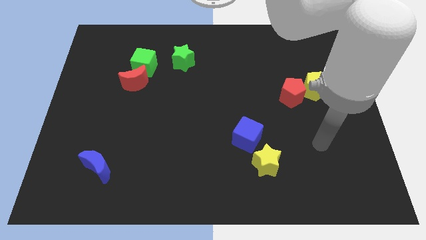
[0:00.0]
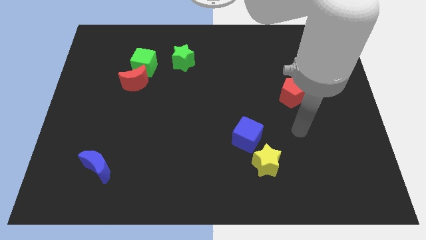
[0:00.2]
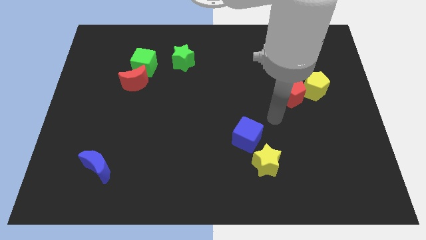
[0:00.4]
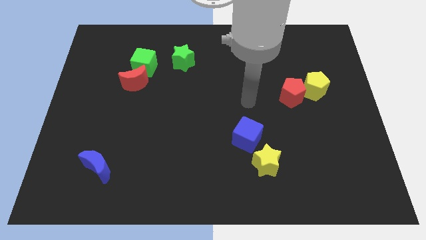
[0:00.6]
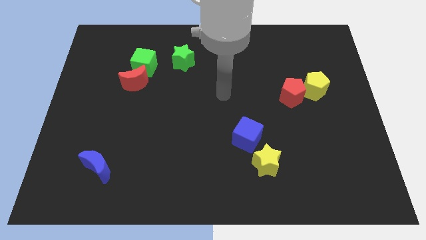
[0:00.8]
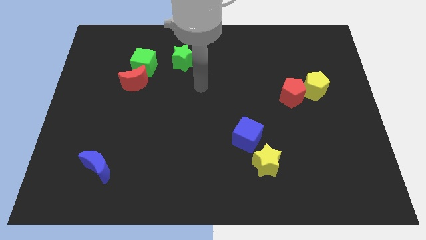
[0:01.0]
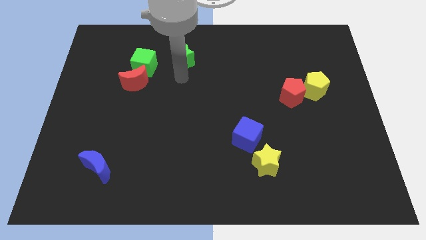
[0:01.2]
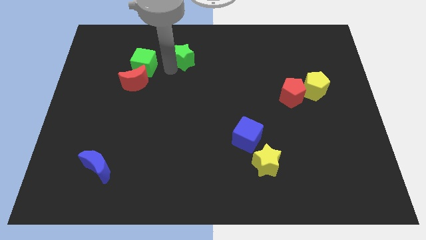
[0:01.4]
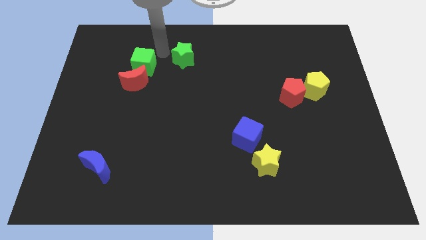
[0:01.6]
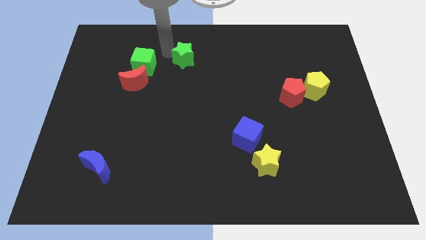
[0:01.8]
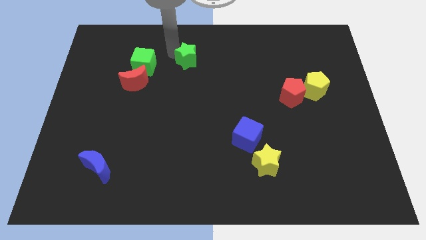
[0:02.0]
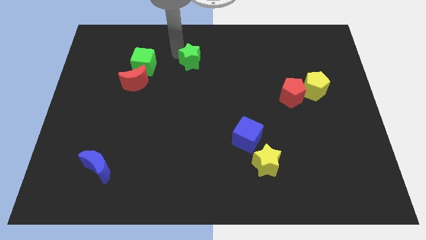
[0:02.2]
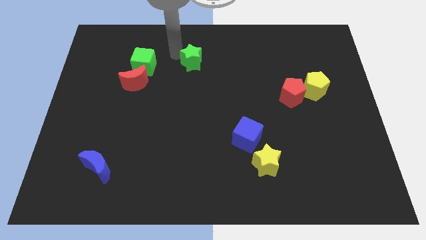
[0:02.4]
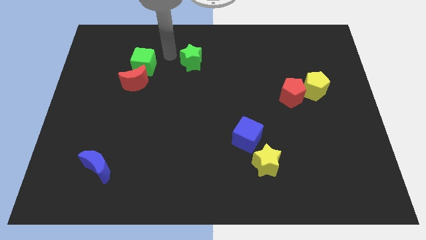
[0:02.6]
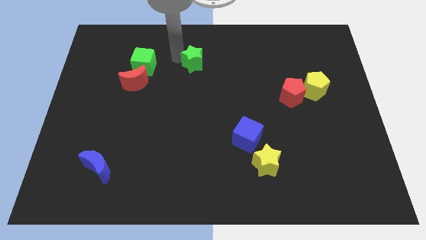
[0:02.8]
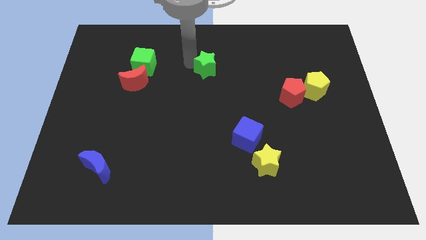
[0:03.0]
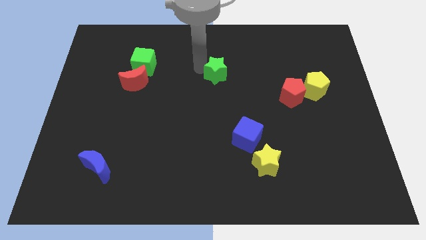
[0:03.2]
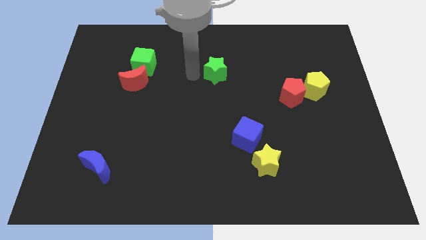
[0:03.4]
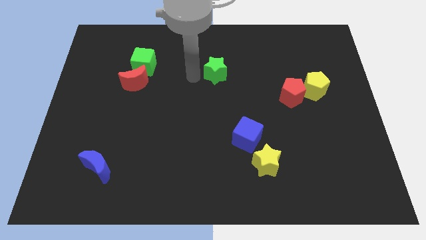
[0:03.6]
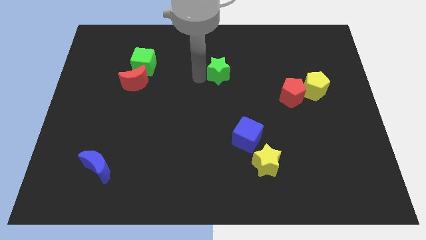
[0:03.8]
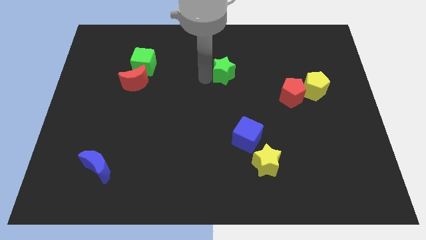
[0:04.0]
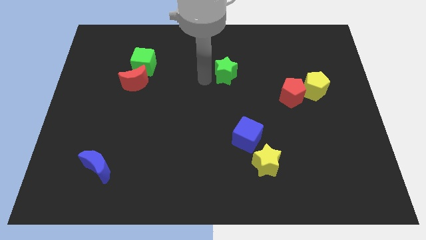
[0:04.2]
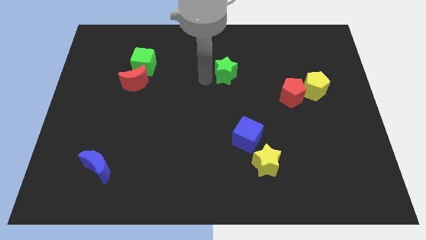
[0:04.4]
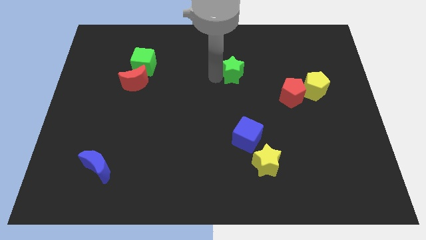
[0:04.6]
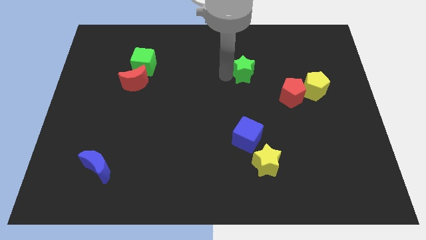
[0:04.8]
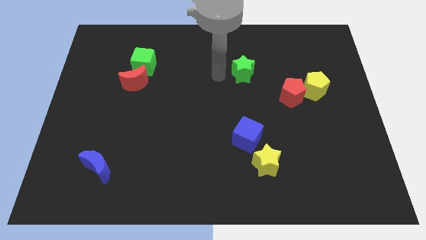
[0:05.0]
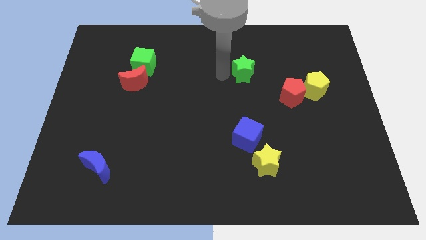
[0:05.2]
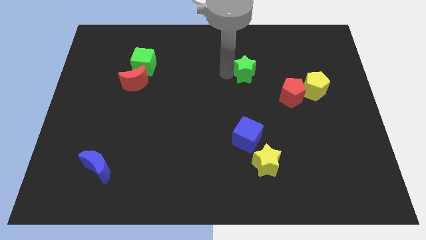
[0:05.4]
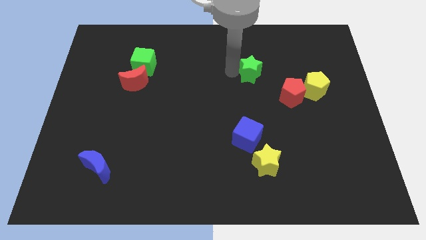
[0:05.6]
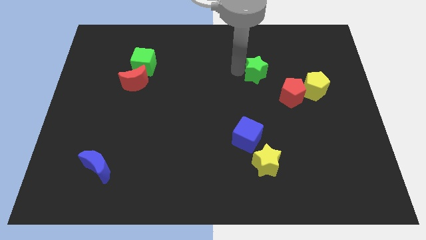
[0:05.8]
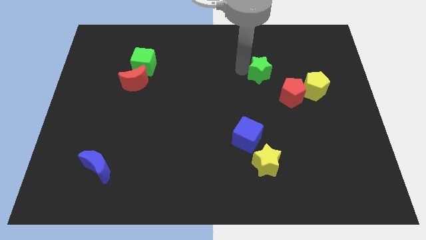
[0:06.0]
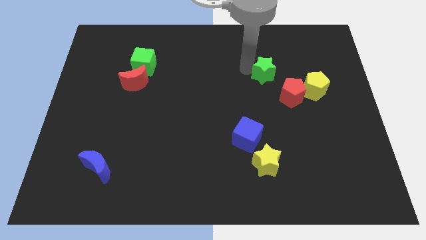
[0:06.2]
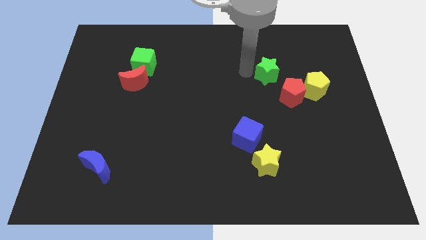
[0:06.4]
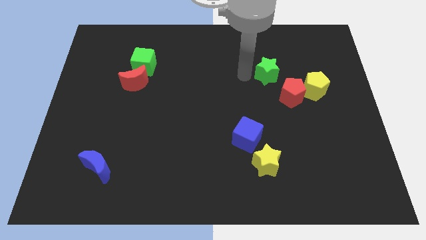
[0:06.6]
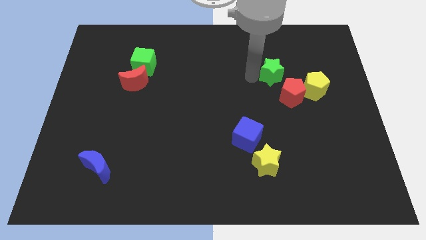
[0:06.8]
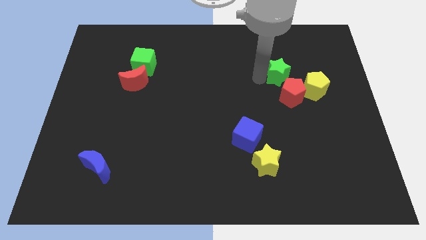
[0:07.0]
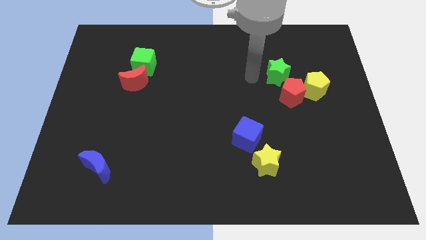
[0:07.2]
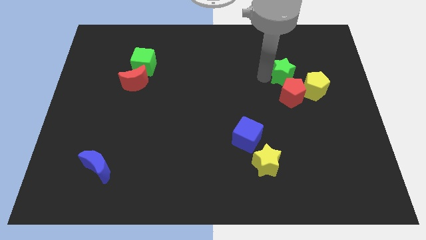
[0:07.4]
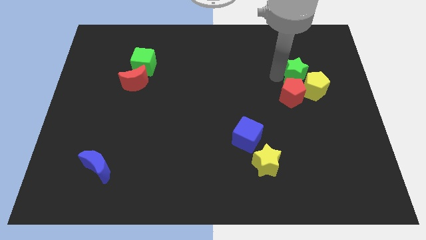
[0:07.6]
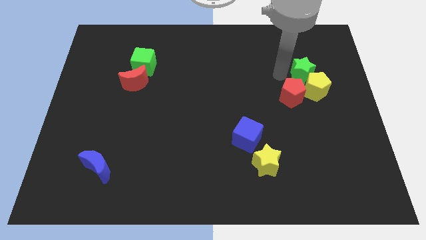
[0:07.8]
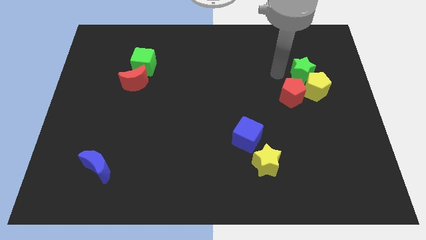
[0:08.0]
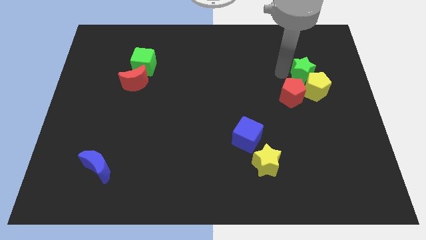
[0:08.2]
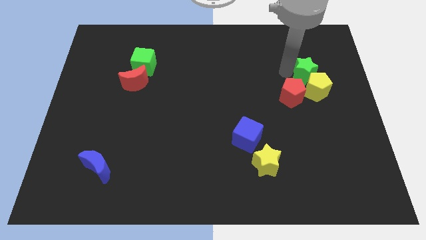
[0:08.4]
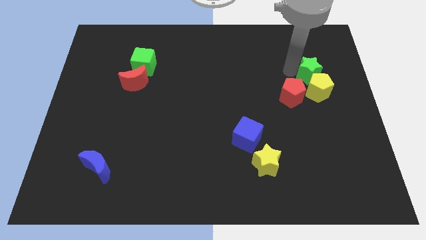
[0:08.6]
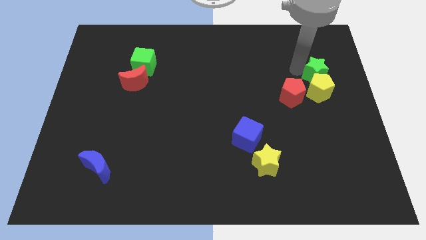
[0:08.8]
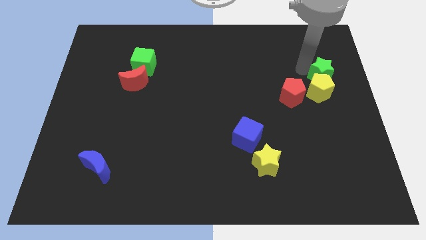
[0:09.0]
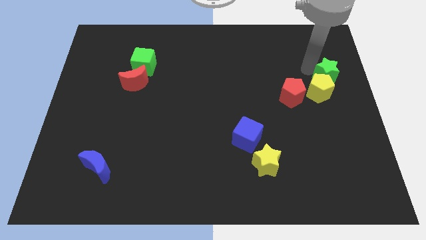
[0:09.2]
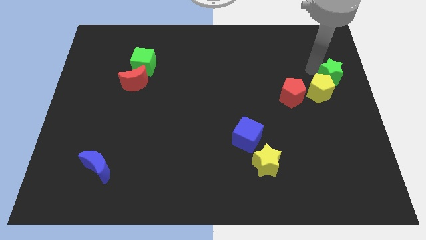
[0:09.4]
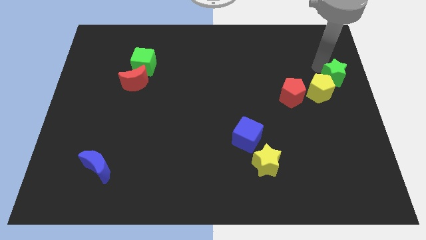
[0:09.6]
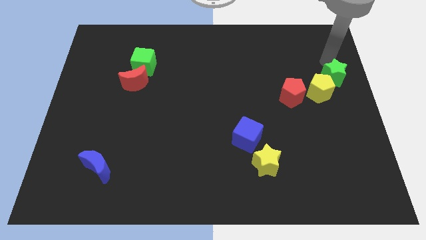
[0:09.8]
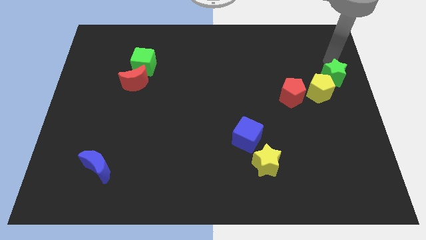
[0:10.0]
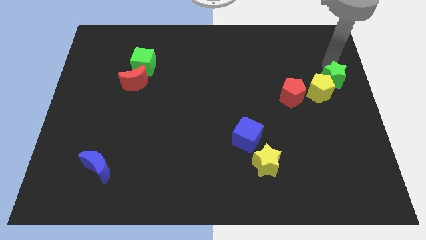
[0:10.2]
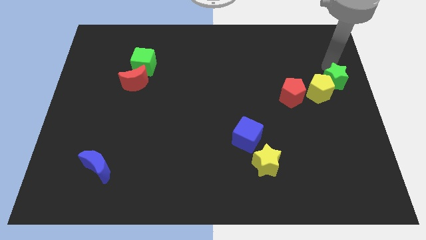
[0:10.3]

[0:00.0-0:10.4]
put the green star to the right side of the red pentagon

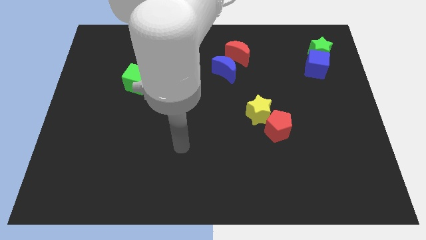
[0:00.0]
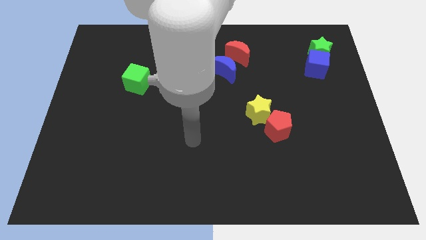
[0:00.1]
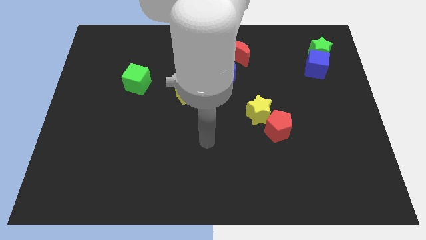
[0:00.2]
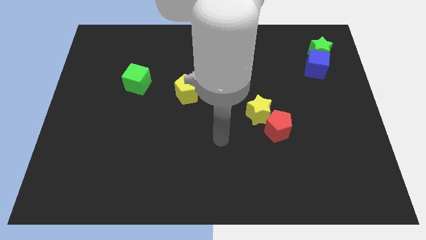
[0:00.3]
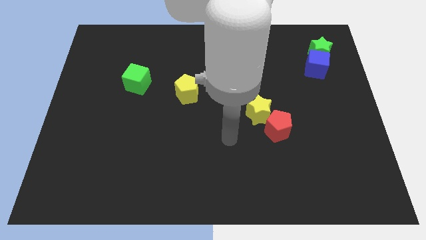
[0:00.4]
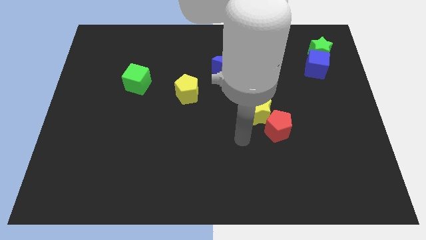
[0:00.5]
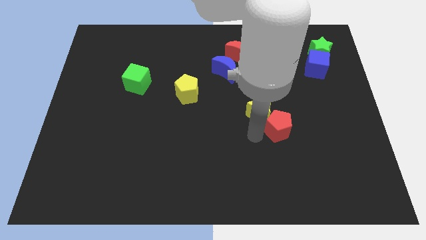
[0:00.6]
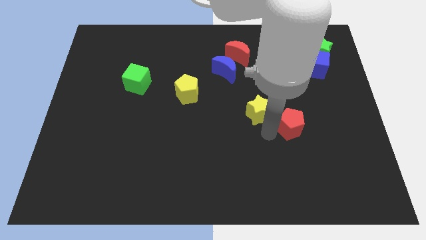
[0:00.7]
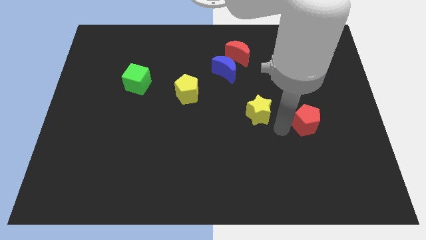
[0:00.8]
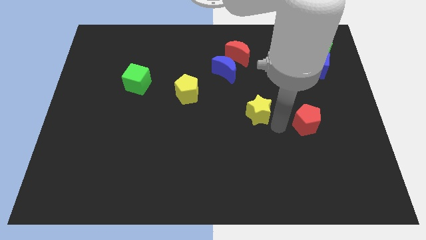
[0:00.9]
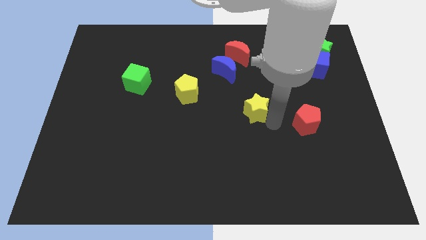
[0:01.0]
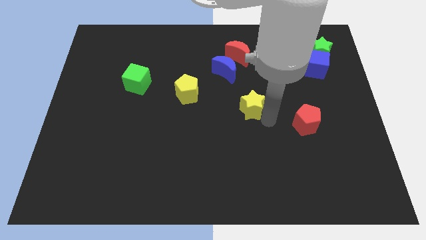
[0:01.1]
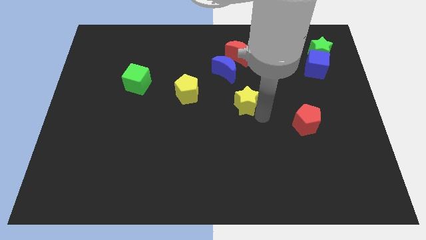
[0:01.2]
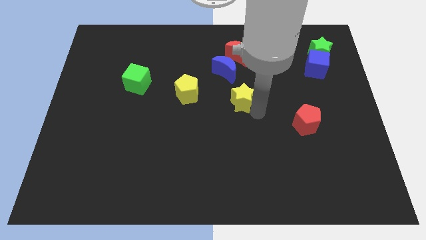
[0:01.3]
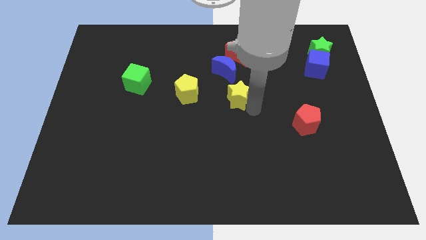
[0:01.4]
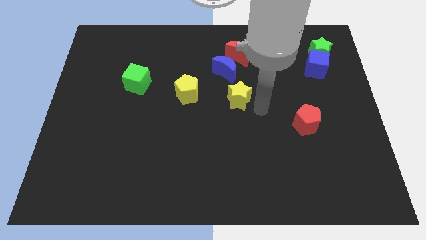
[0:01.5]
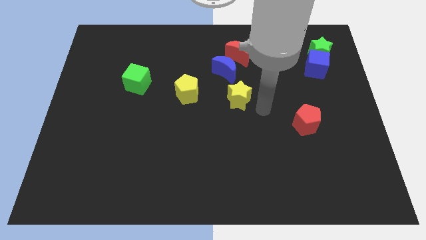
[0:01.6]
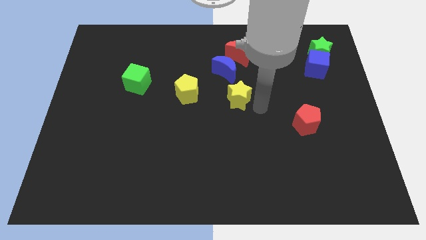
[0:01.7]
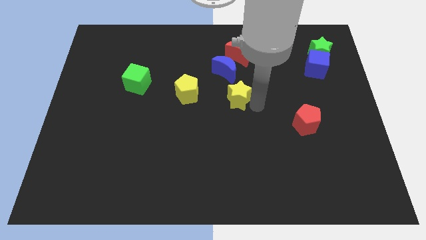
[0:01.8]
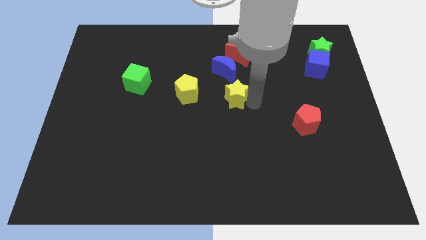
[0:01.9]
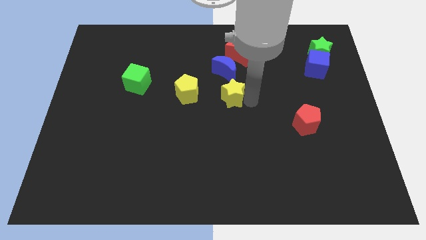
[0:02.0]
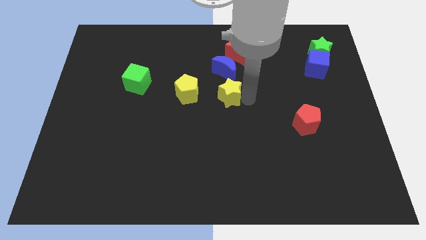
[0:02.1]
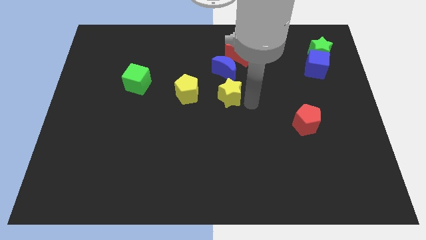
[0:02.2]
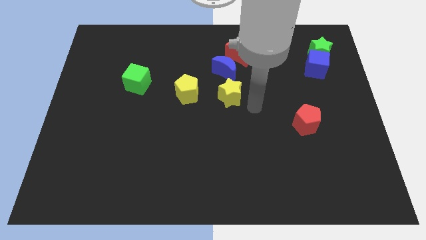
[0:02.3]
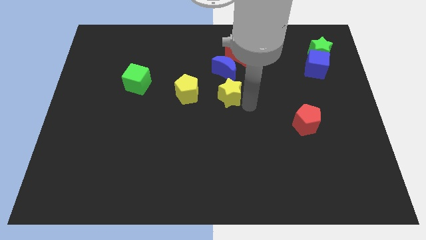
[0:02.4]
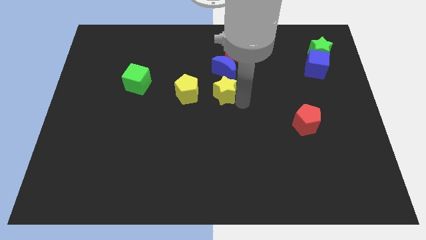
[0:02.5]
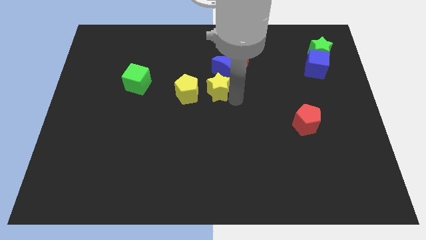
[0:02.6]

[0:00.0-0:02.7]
move the yellow star to the bottom left of the blue moon
